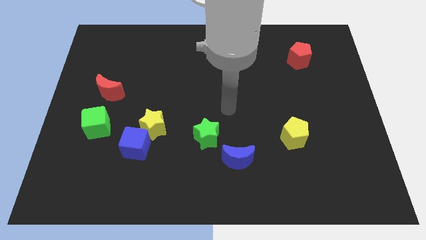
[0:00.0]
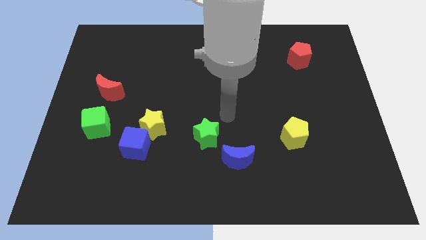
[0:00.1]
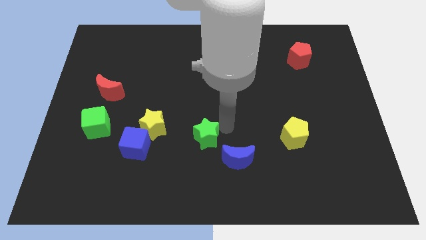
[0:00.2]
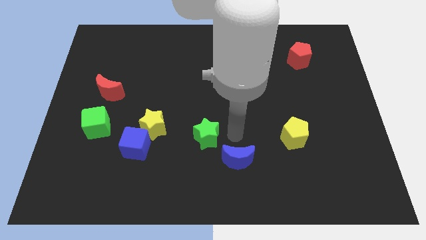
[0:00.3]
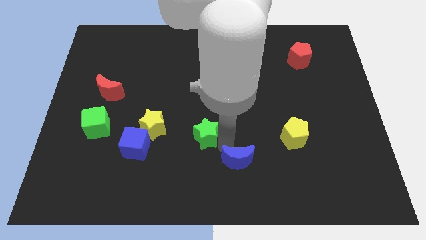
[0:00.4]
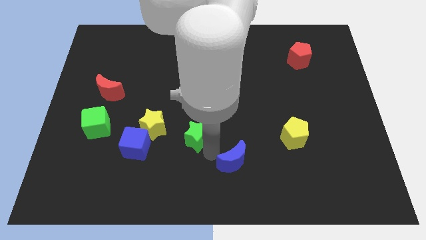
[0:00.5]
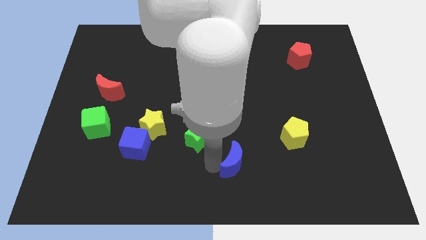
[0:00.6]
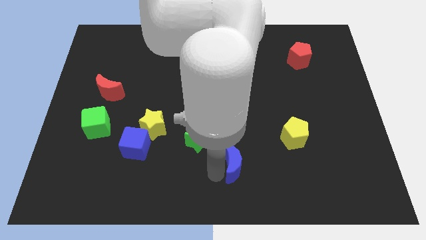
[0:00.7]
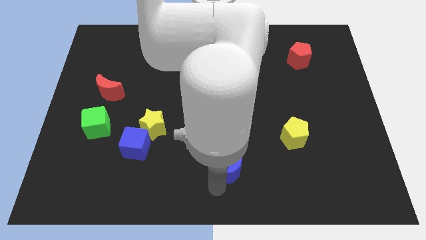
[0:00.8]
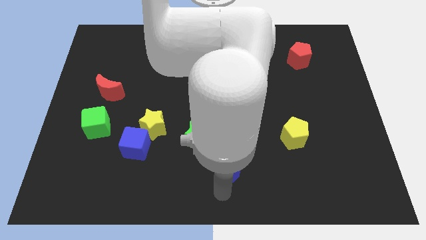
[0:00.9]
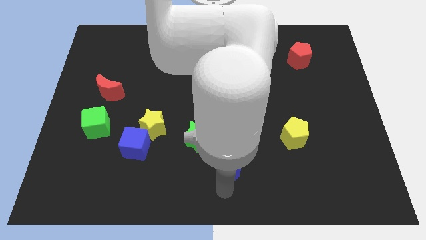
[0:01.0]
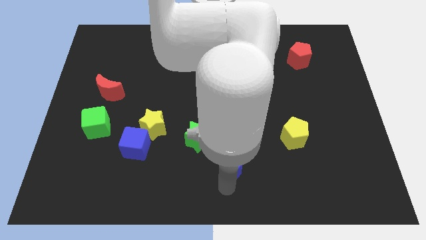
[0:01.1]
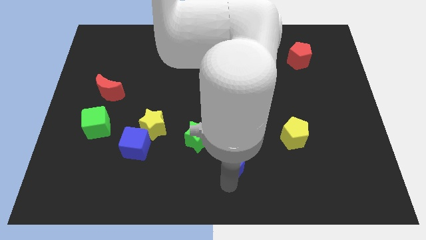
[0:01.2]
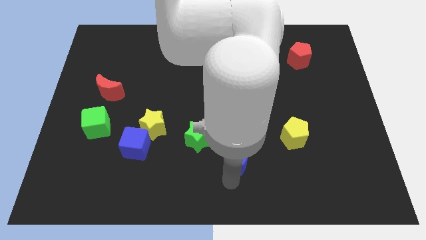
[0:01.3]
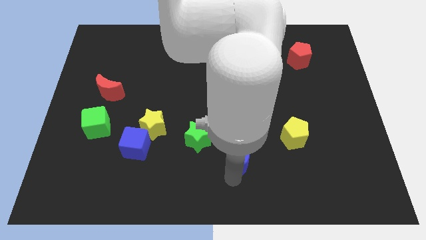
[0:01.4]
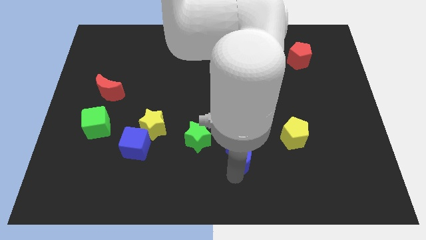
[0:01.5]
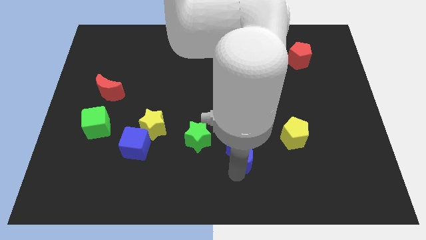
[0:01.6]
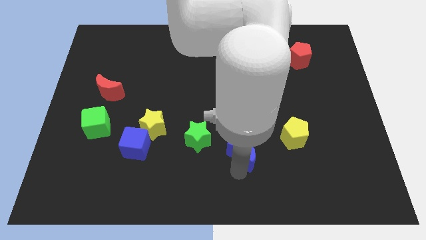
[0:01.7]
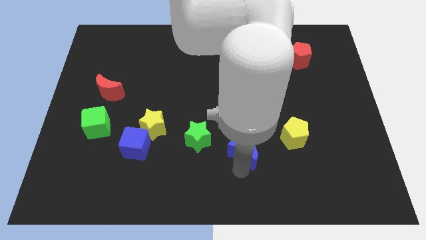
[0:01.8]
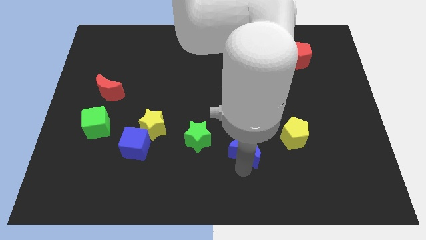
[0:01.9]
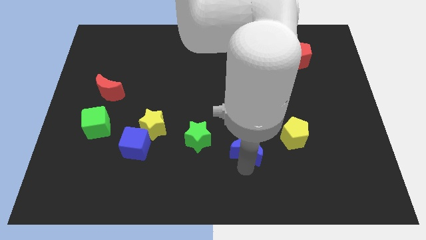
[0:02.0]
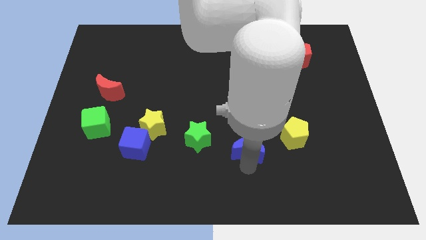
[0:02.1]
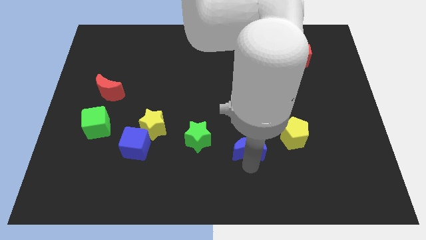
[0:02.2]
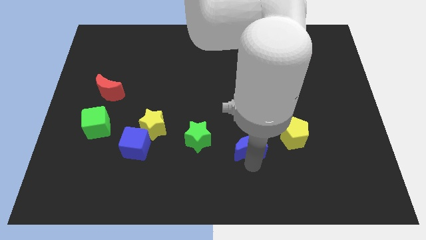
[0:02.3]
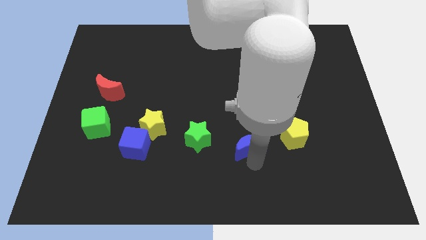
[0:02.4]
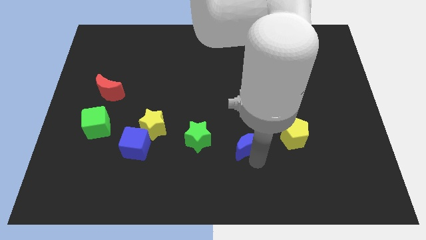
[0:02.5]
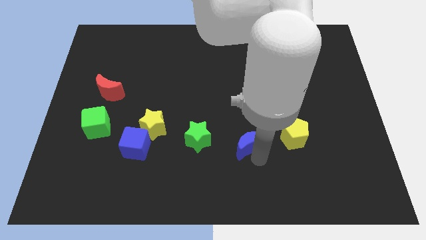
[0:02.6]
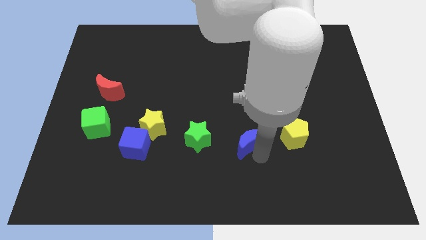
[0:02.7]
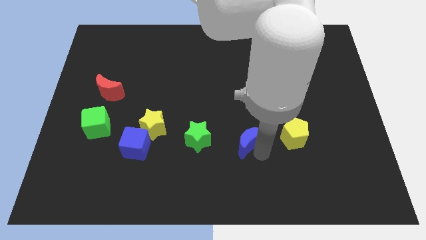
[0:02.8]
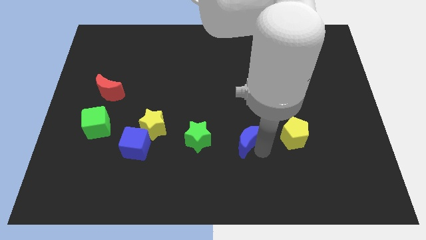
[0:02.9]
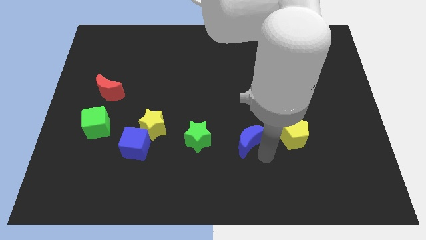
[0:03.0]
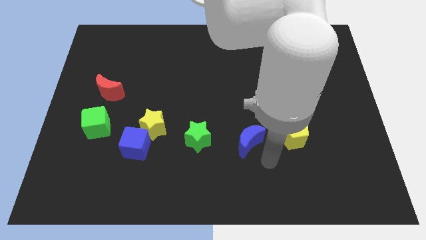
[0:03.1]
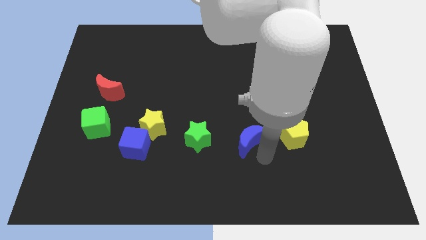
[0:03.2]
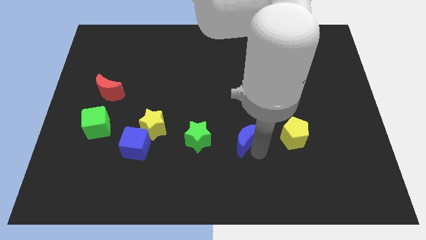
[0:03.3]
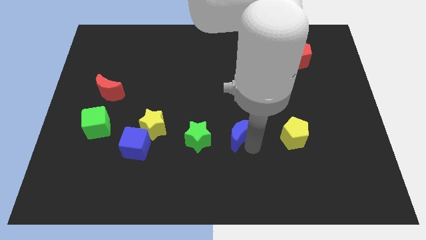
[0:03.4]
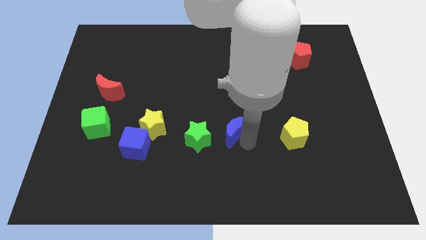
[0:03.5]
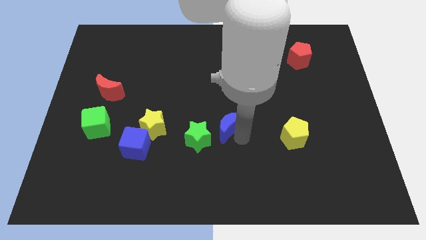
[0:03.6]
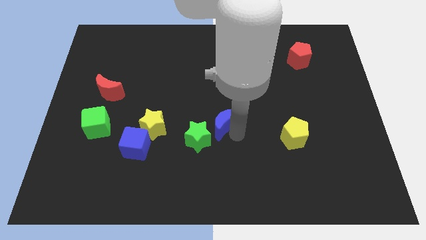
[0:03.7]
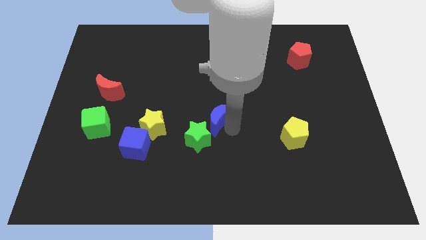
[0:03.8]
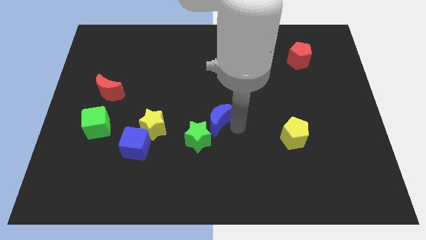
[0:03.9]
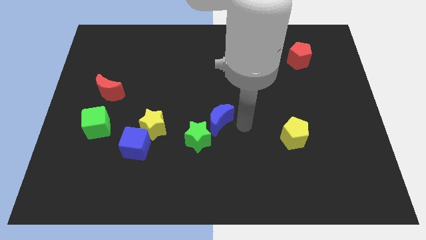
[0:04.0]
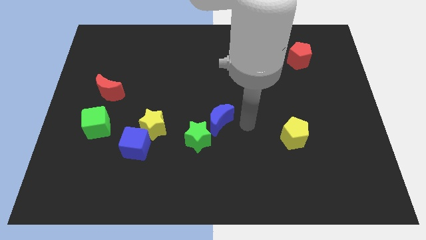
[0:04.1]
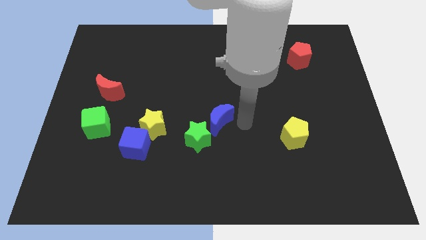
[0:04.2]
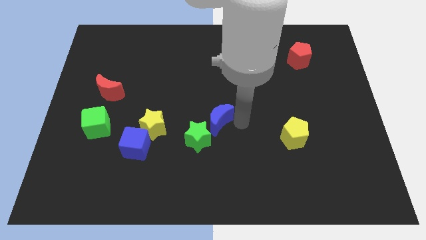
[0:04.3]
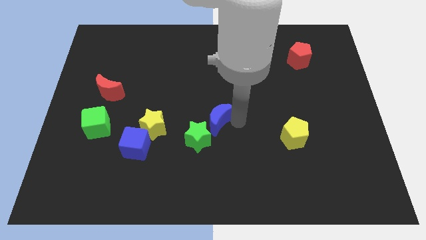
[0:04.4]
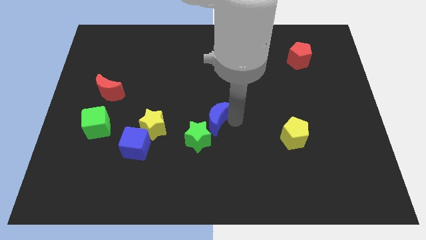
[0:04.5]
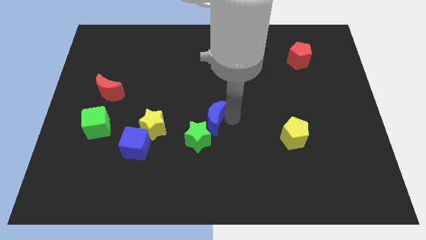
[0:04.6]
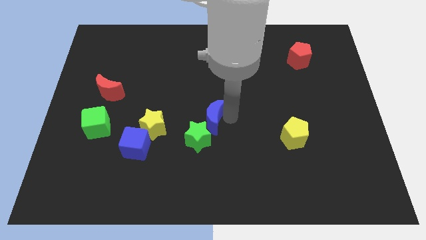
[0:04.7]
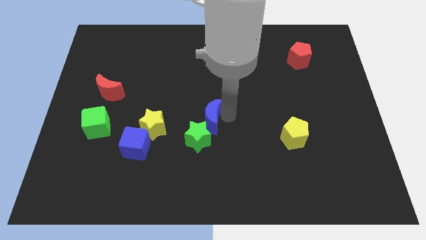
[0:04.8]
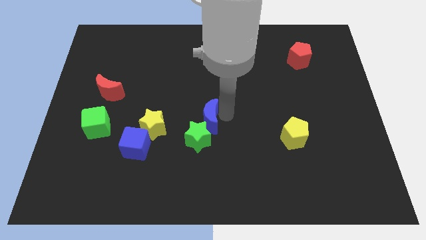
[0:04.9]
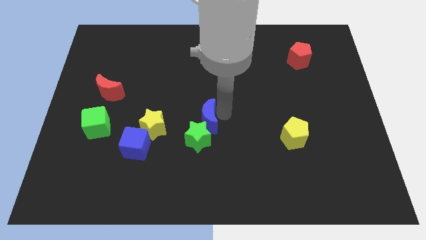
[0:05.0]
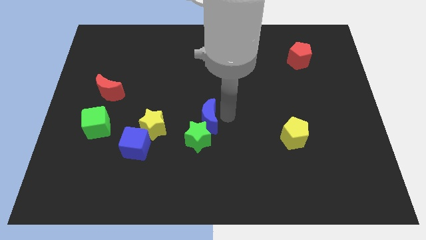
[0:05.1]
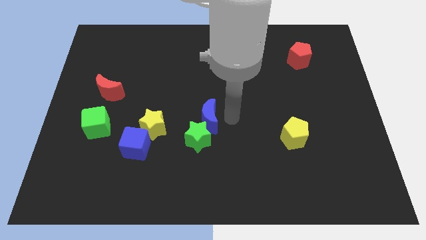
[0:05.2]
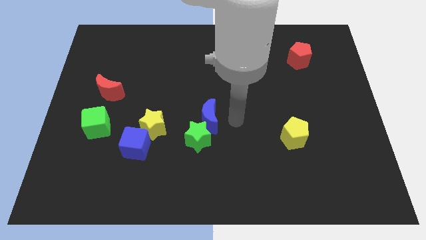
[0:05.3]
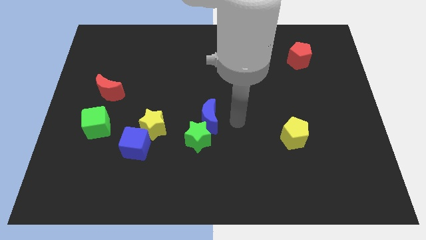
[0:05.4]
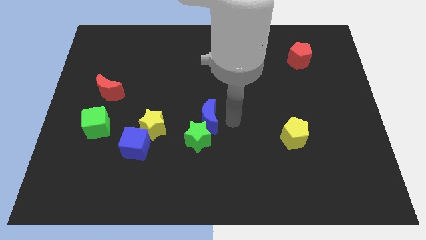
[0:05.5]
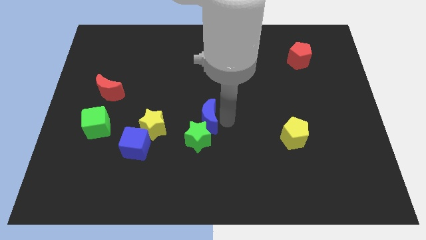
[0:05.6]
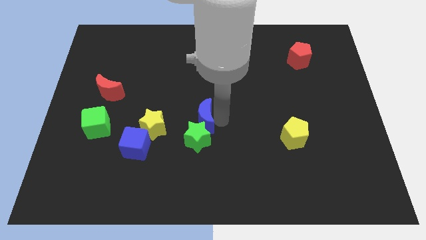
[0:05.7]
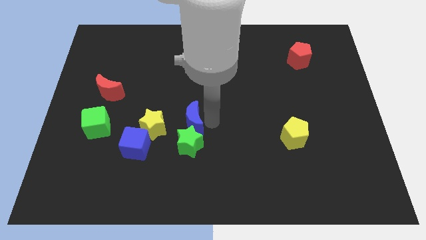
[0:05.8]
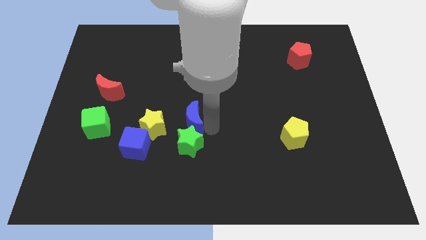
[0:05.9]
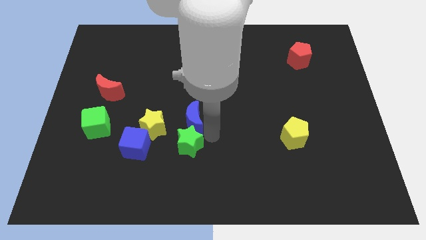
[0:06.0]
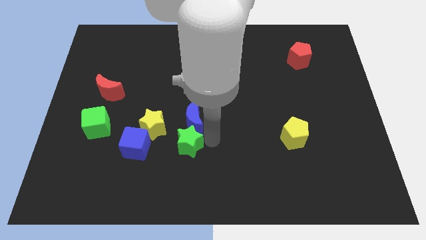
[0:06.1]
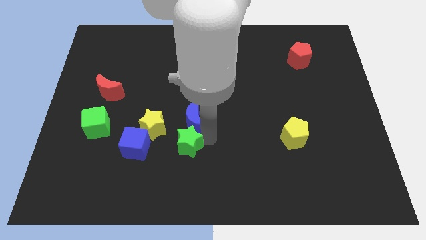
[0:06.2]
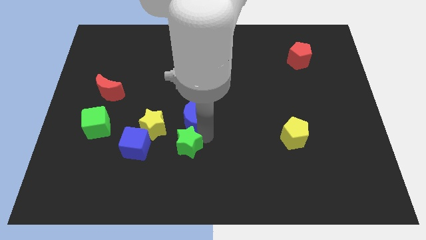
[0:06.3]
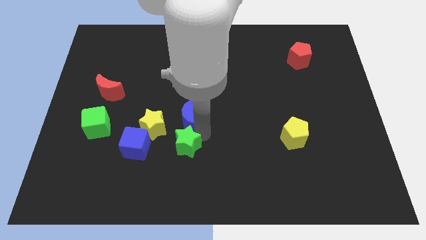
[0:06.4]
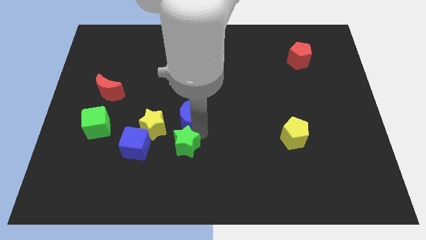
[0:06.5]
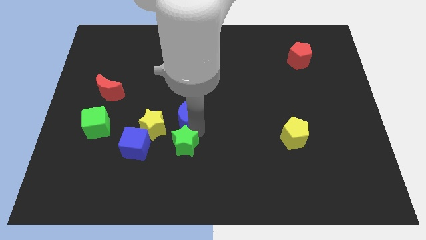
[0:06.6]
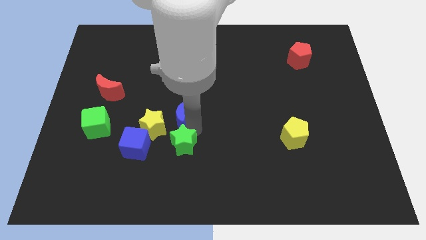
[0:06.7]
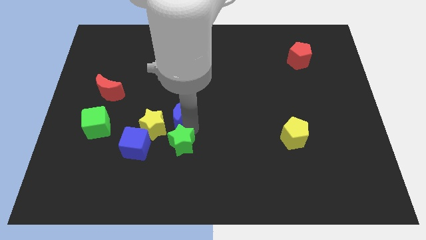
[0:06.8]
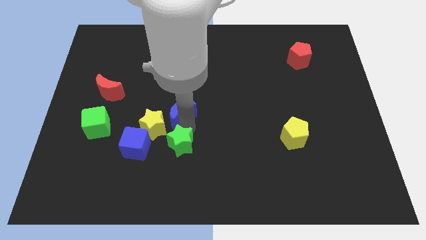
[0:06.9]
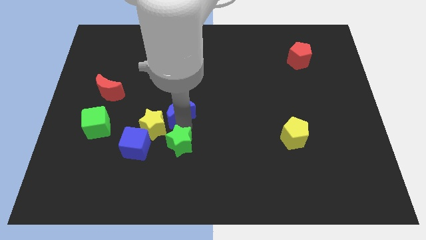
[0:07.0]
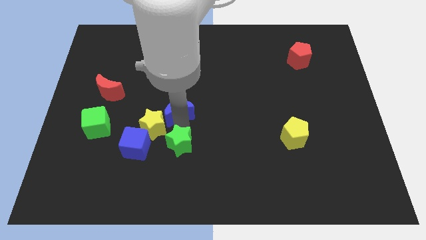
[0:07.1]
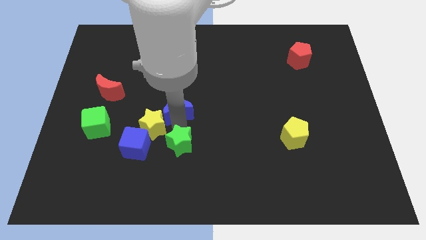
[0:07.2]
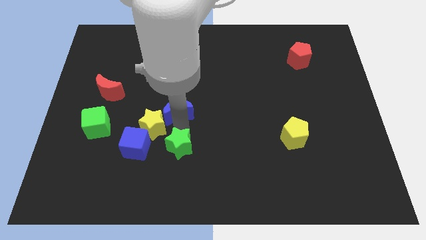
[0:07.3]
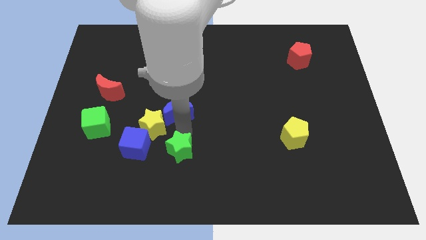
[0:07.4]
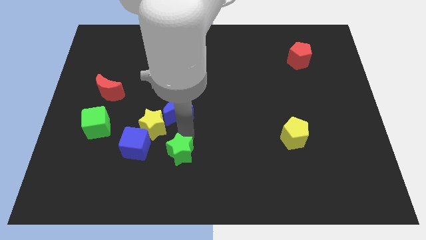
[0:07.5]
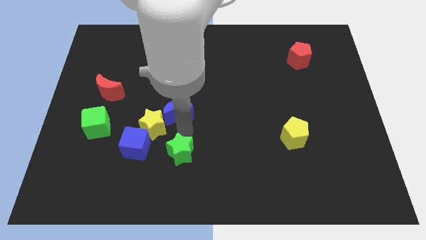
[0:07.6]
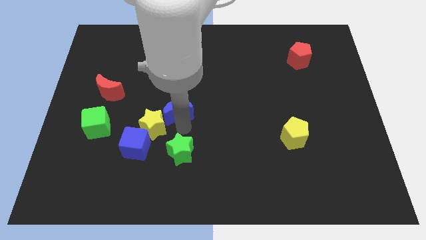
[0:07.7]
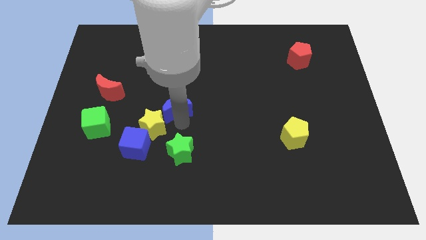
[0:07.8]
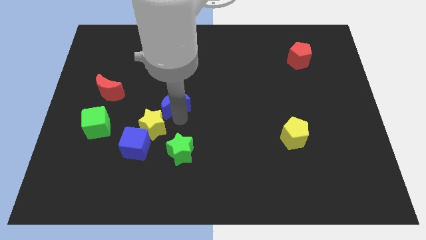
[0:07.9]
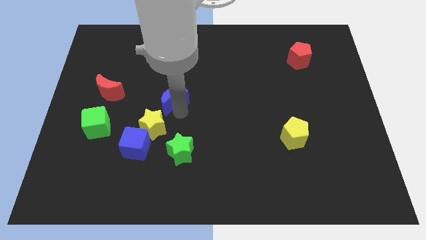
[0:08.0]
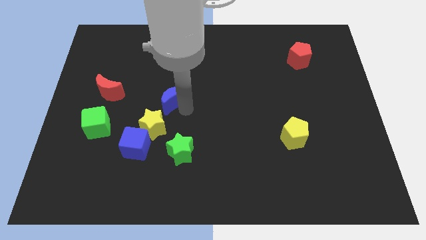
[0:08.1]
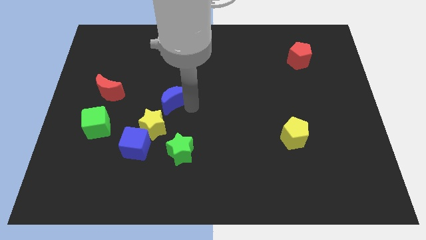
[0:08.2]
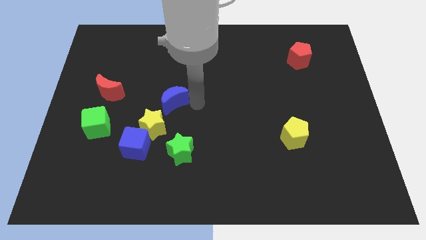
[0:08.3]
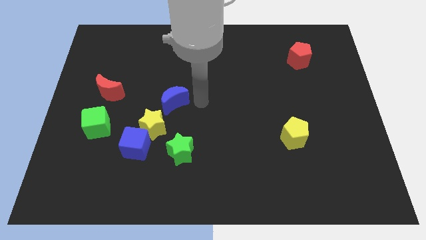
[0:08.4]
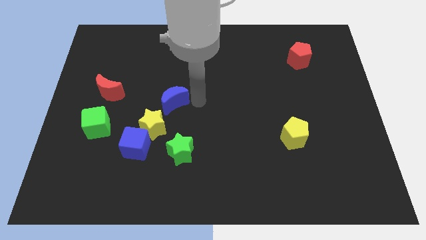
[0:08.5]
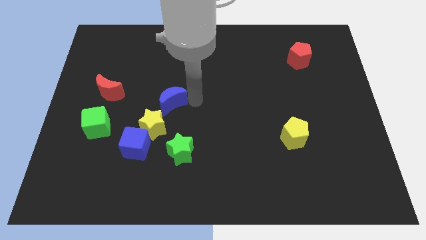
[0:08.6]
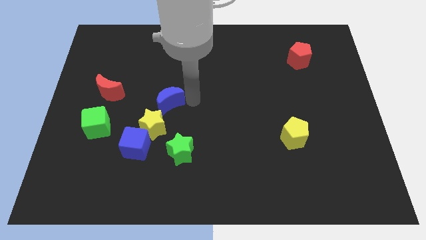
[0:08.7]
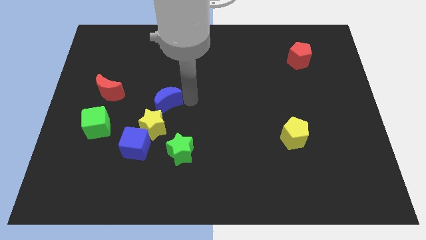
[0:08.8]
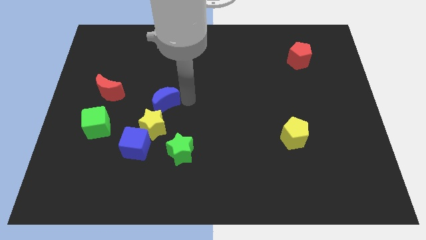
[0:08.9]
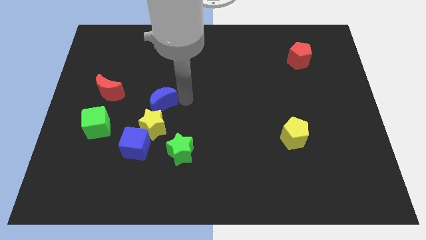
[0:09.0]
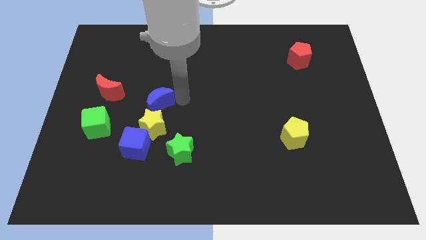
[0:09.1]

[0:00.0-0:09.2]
put the blue moon to the top left side of the yellow star
